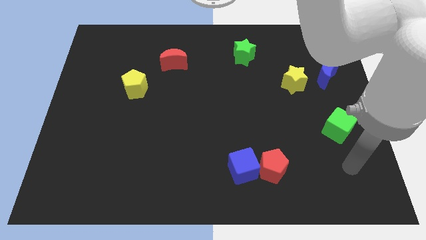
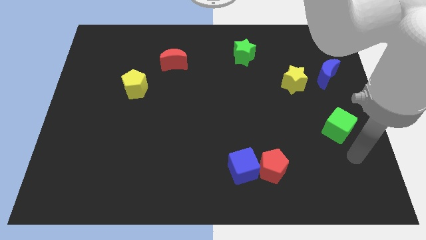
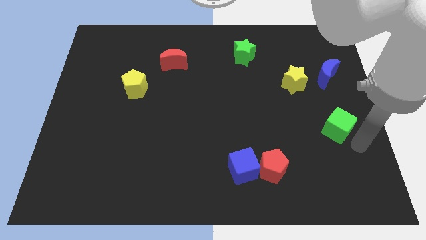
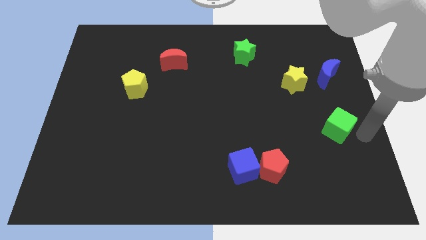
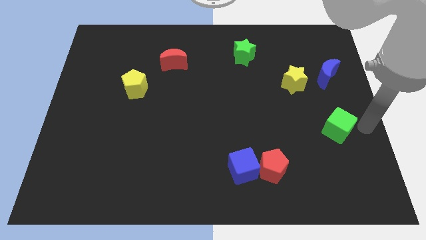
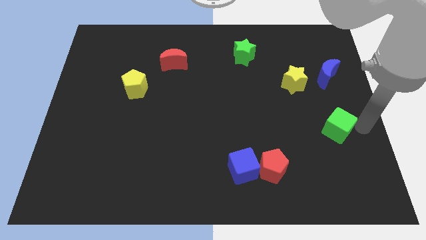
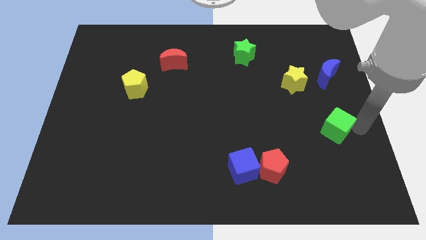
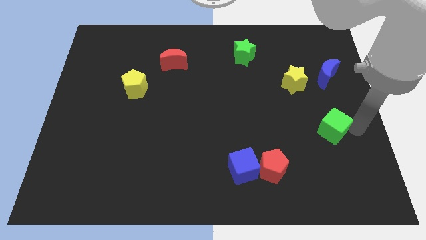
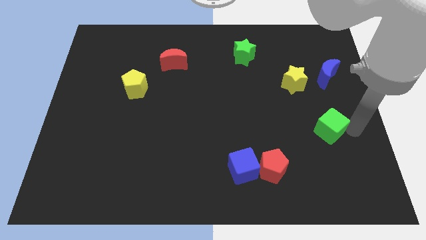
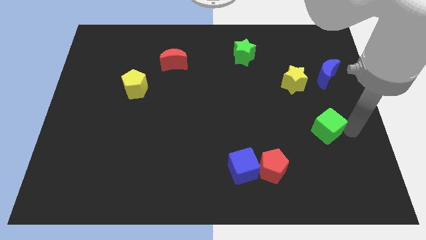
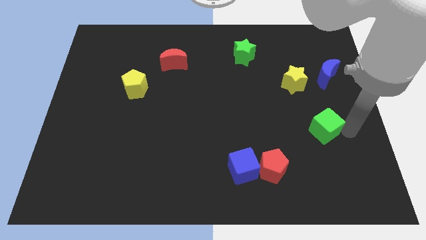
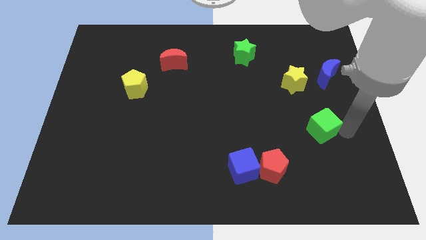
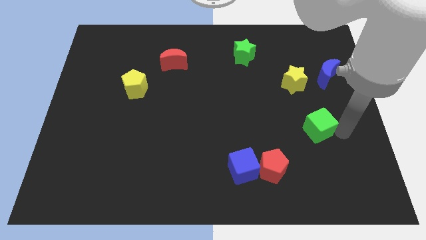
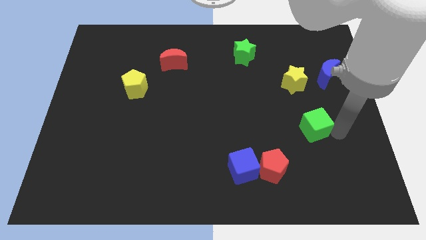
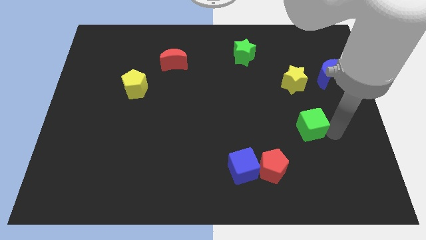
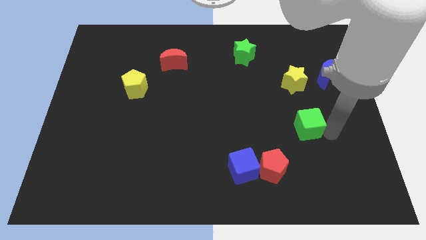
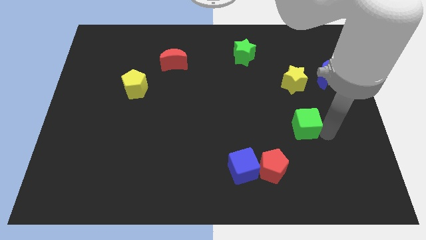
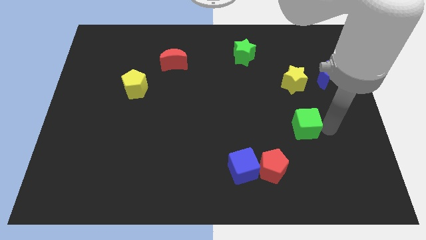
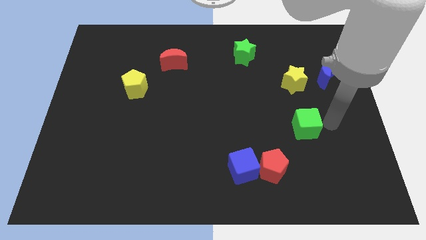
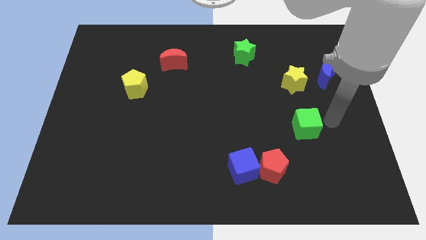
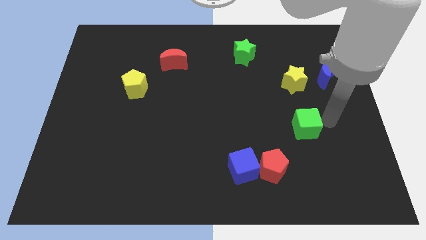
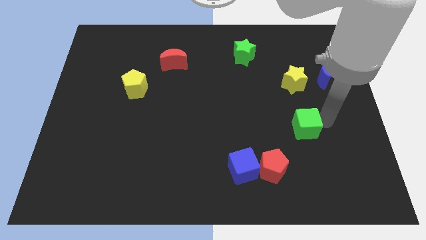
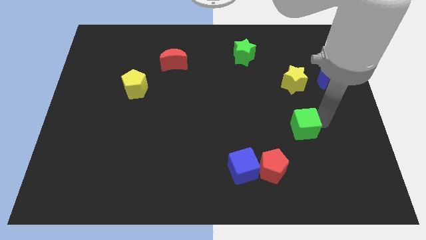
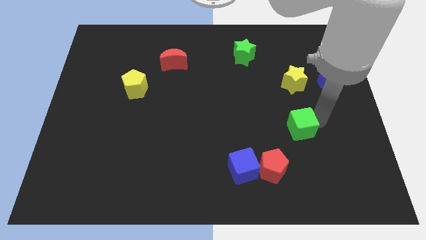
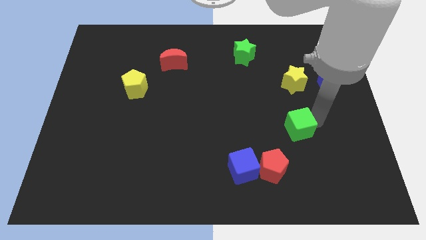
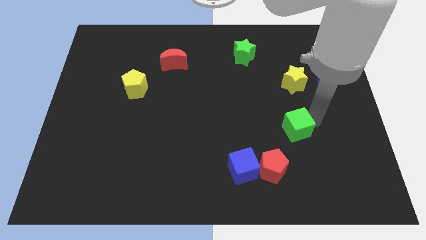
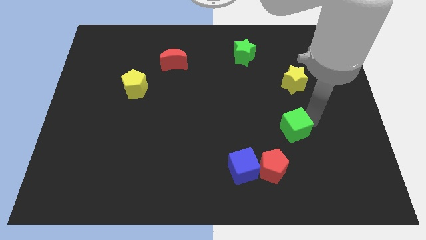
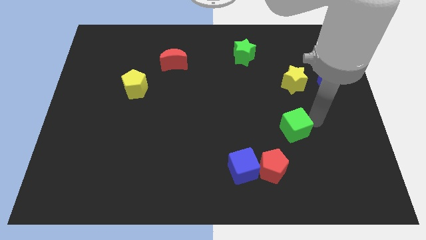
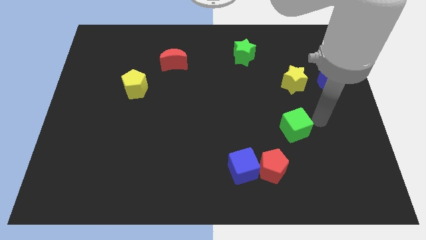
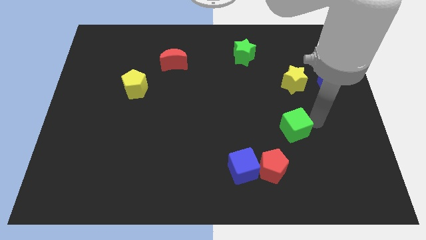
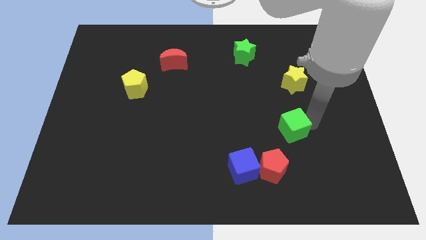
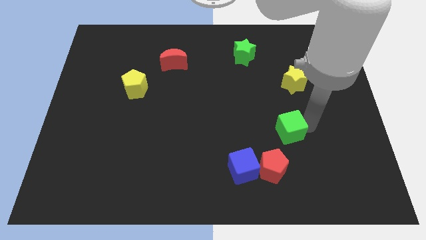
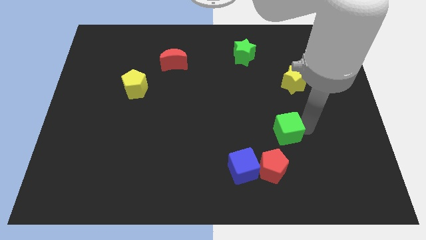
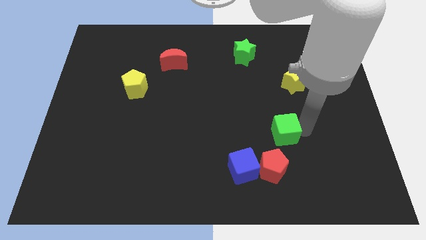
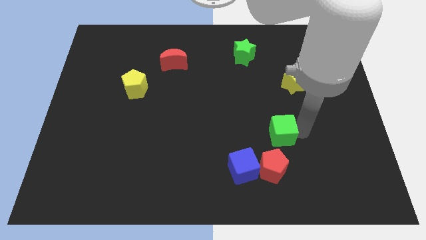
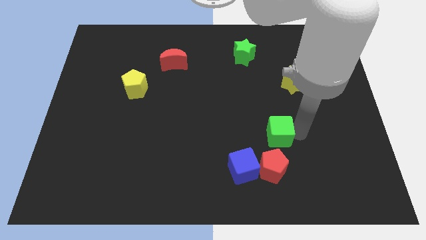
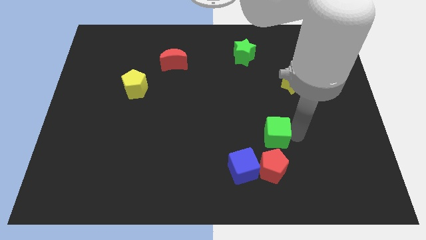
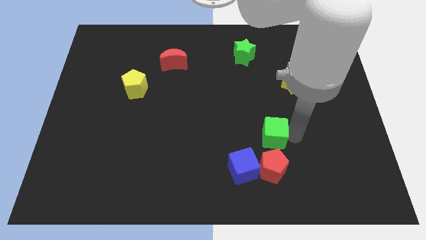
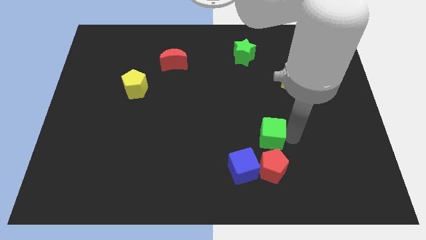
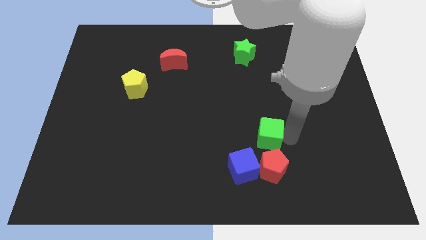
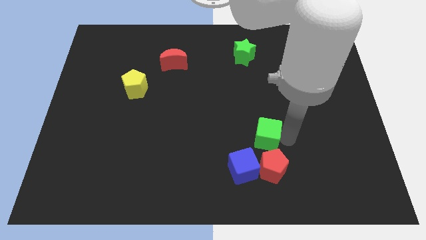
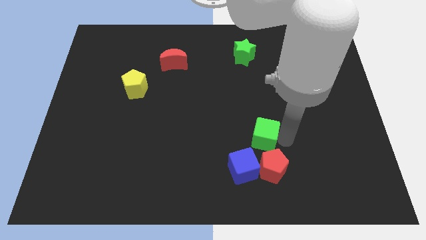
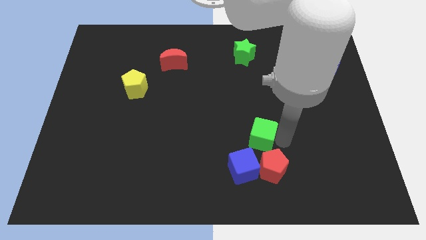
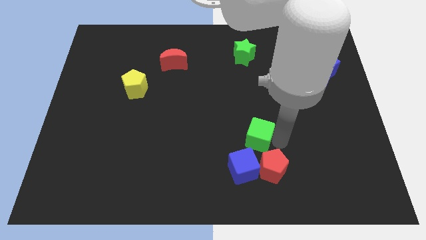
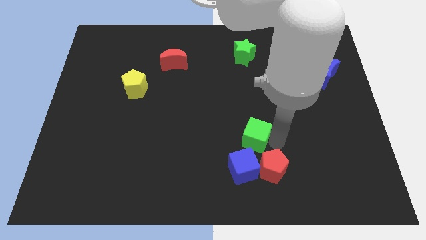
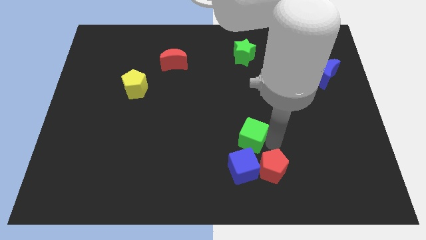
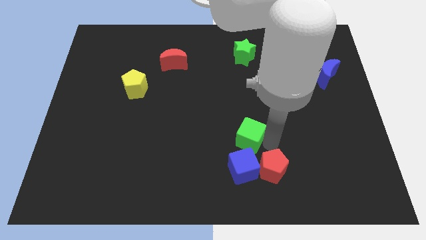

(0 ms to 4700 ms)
move the green cube to the left

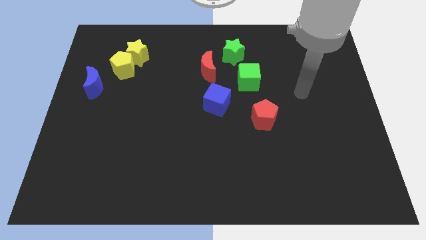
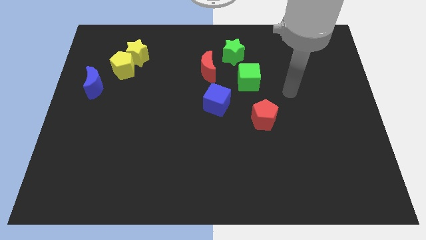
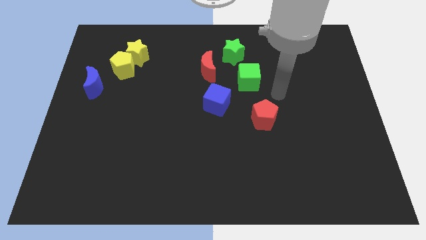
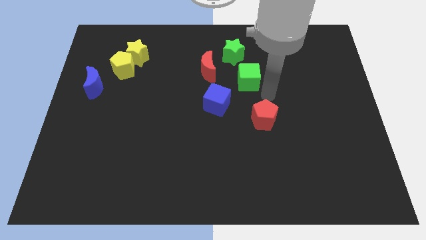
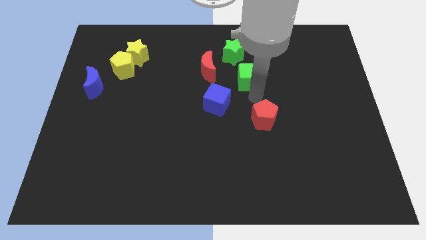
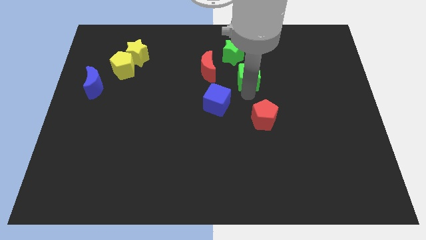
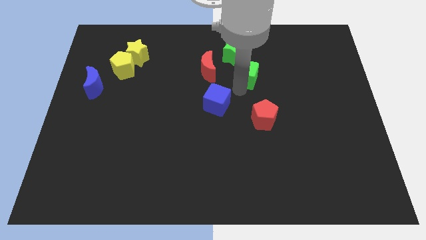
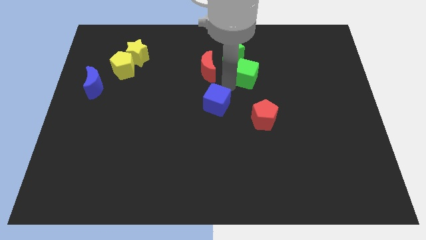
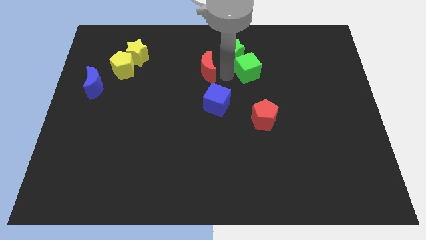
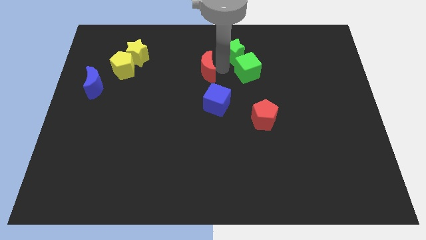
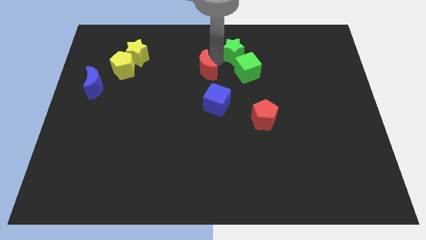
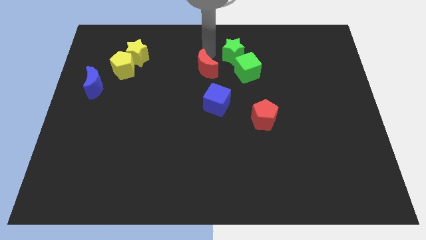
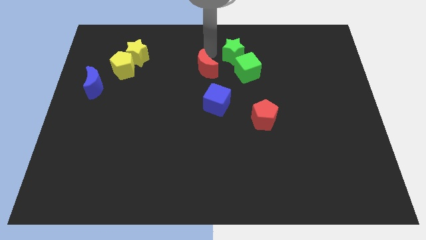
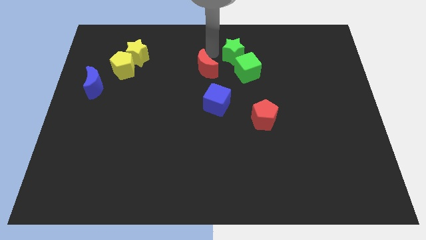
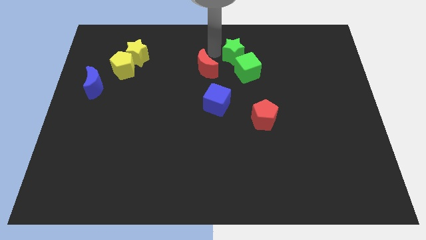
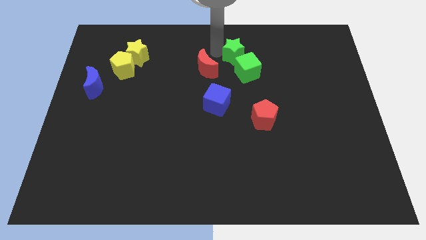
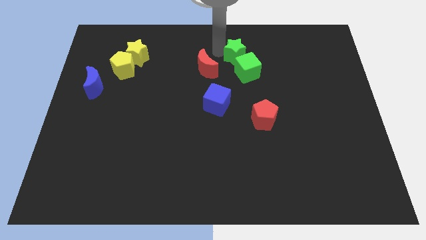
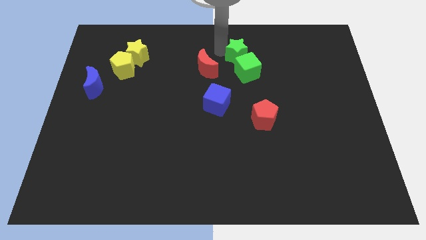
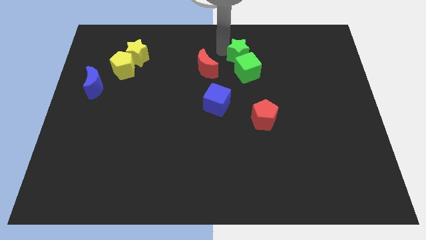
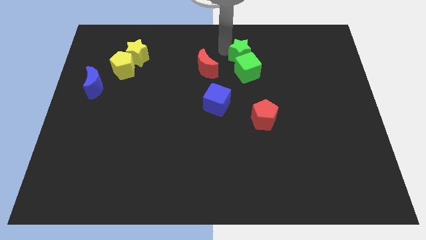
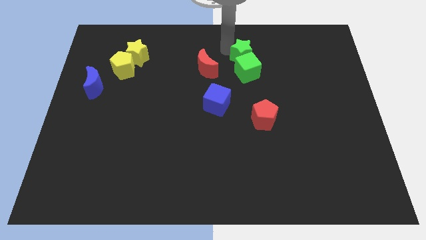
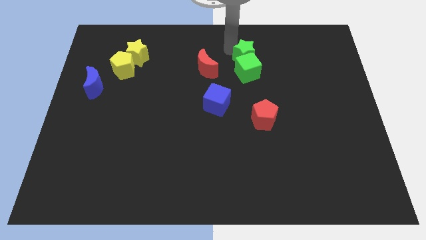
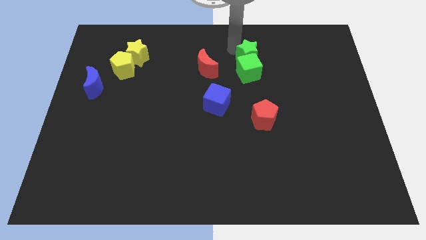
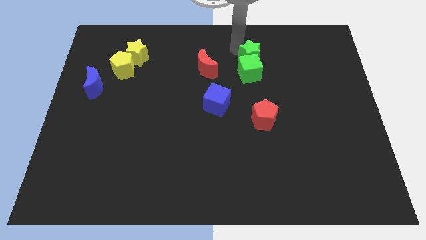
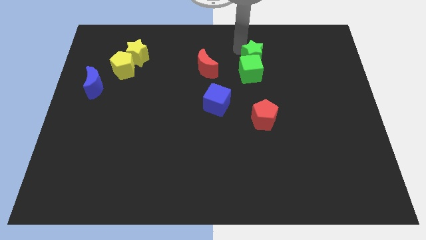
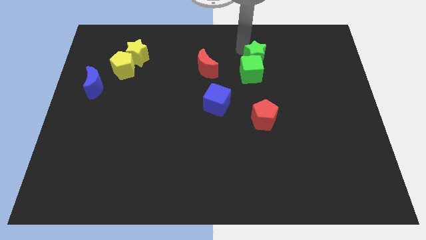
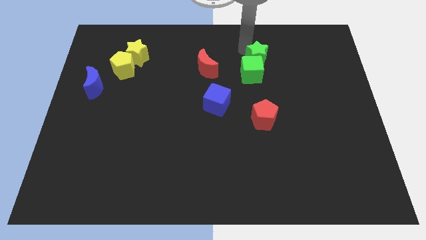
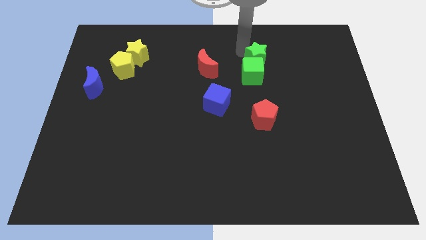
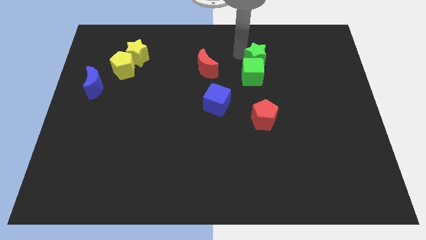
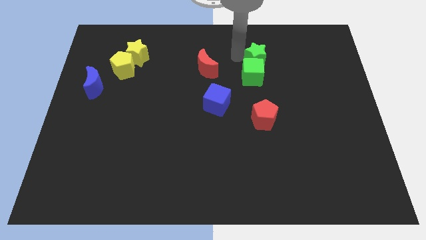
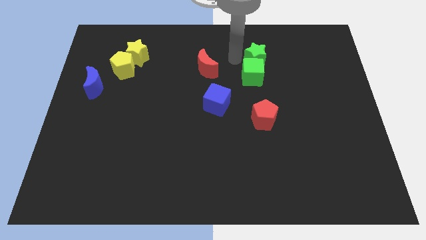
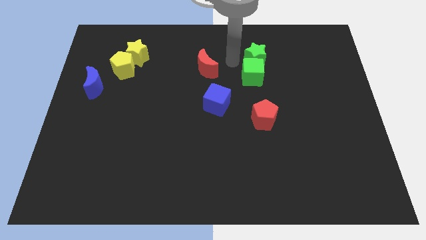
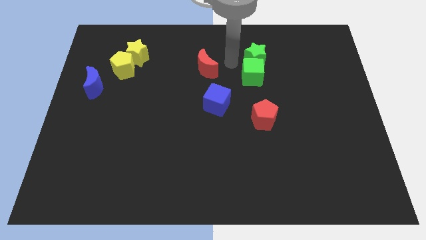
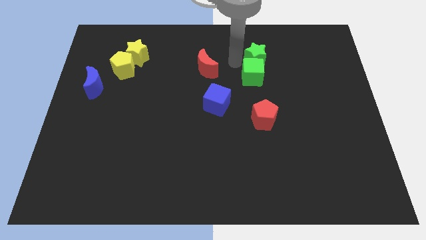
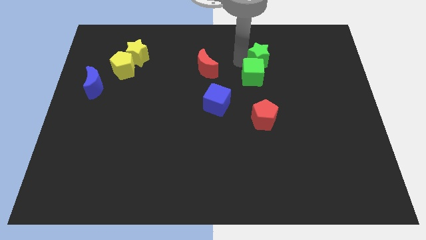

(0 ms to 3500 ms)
slightly push the green star to the right
